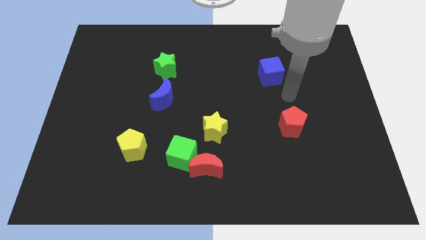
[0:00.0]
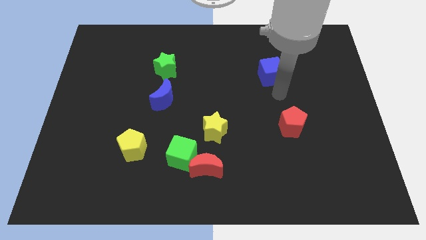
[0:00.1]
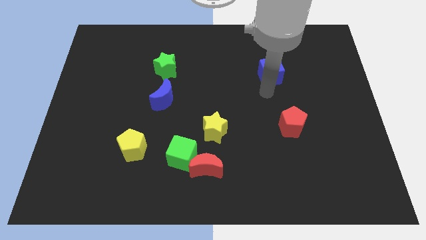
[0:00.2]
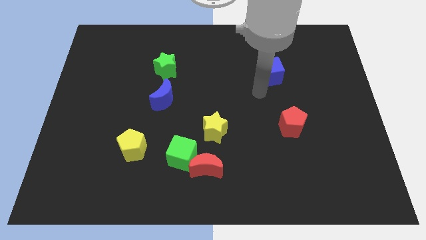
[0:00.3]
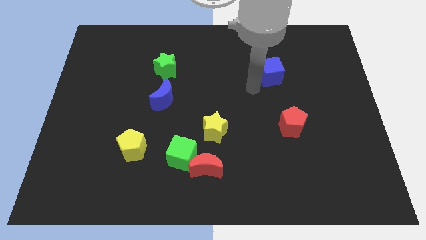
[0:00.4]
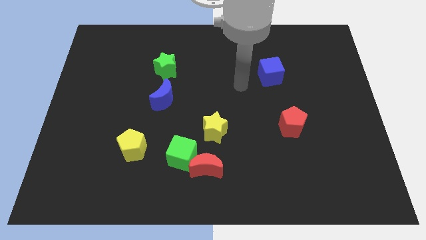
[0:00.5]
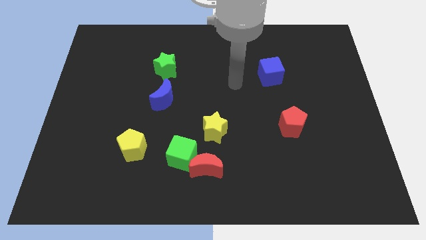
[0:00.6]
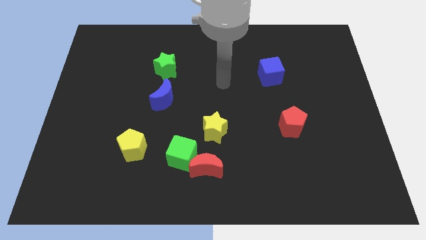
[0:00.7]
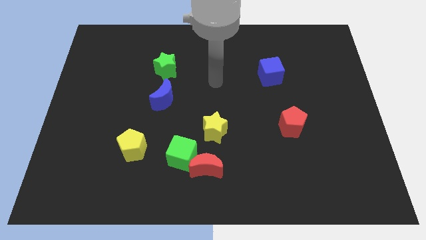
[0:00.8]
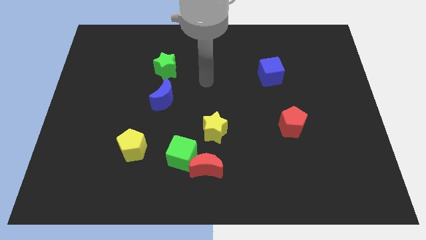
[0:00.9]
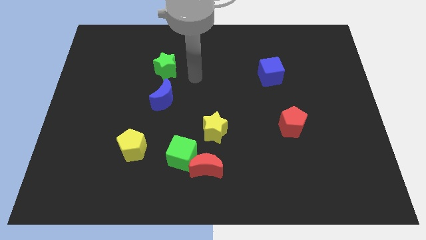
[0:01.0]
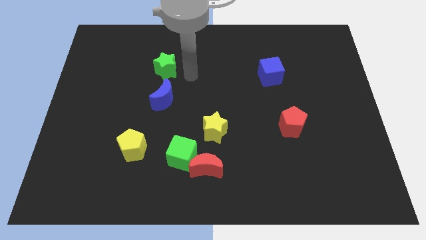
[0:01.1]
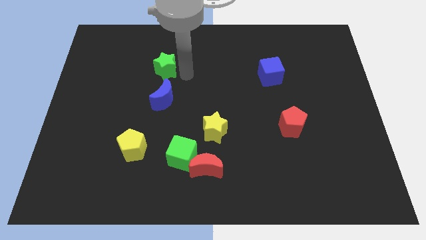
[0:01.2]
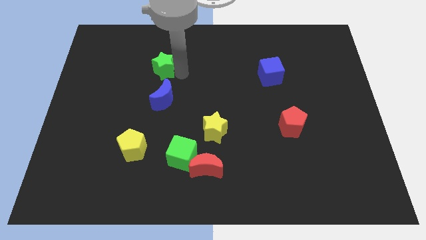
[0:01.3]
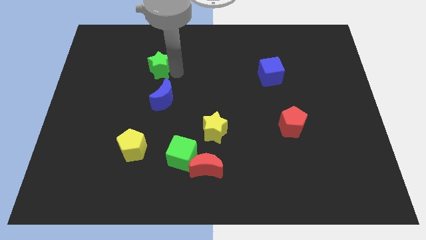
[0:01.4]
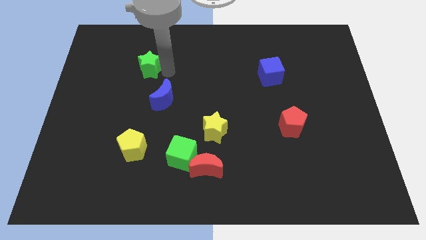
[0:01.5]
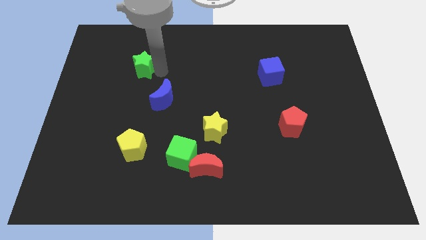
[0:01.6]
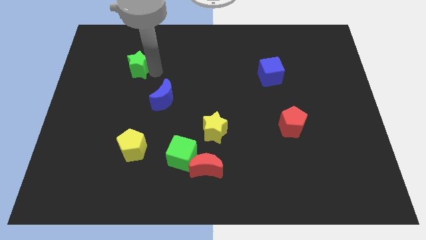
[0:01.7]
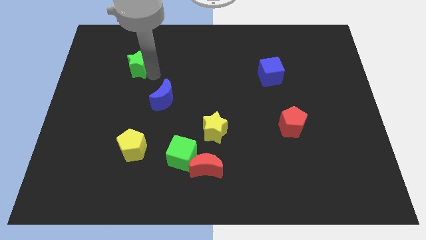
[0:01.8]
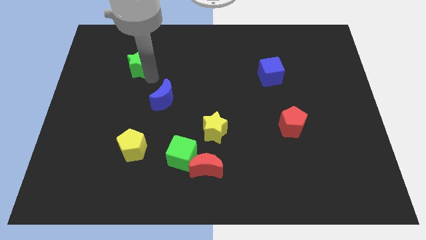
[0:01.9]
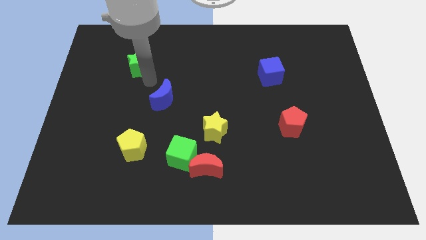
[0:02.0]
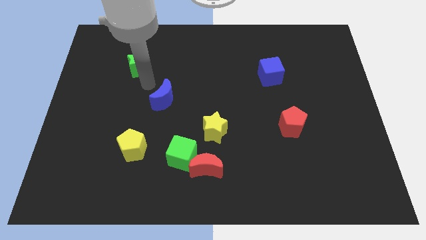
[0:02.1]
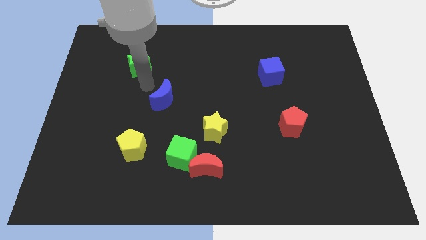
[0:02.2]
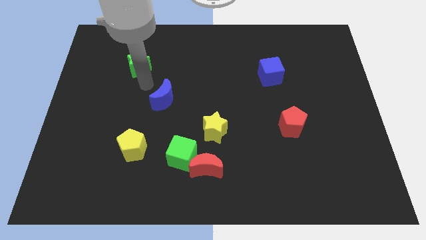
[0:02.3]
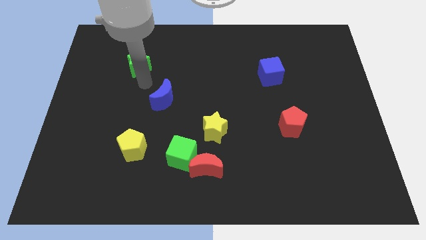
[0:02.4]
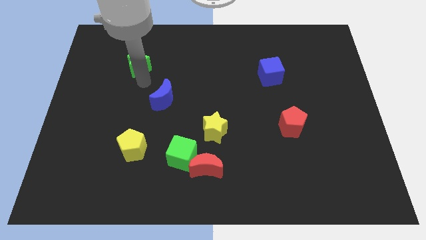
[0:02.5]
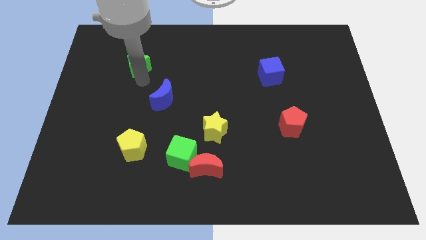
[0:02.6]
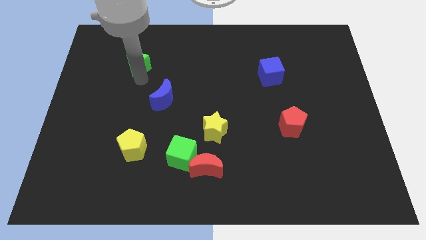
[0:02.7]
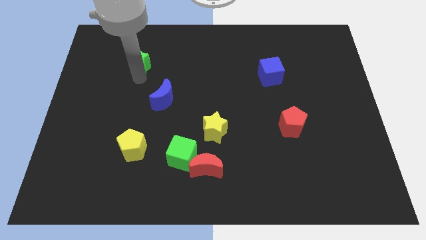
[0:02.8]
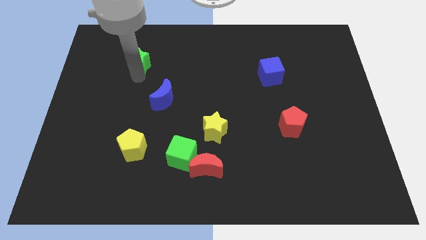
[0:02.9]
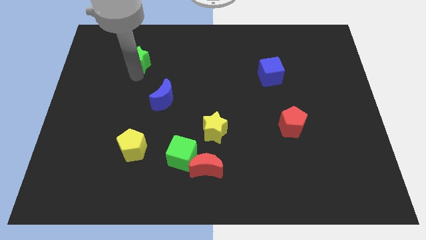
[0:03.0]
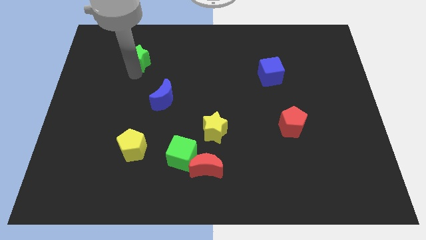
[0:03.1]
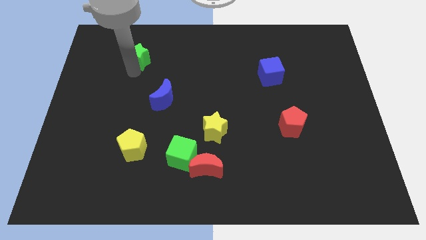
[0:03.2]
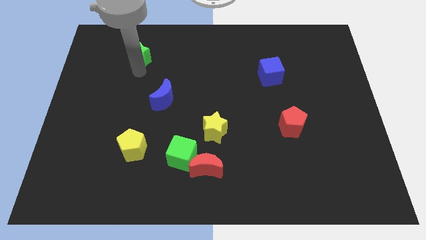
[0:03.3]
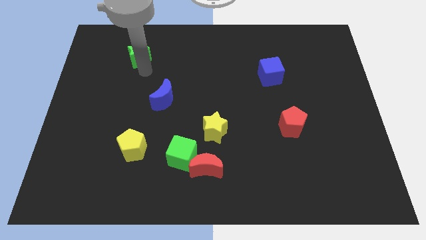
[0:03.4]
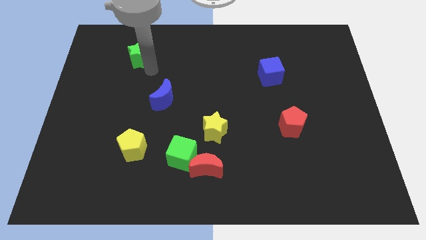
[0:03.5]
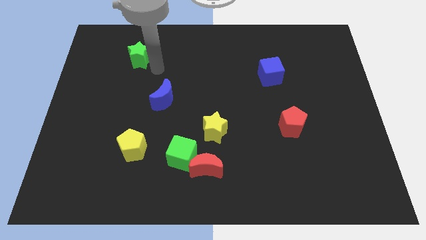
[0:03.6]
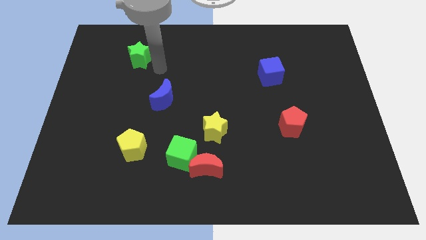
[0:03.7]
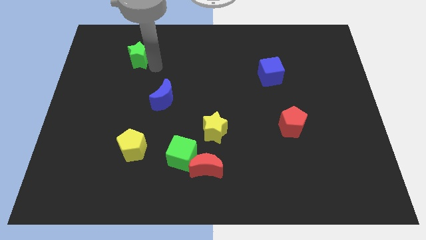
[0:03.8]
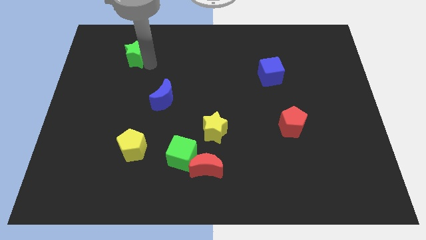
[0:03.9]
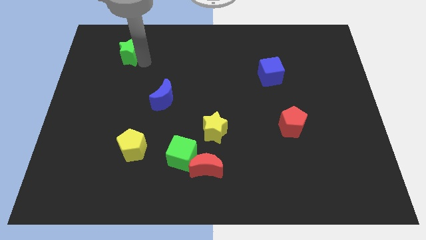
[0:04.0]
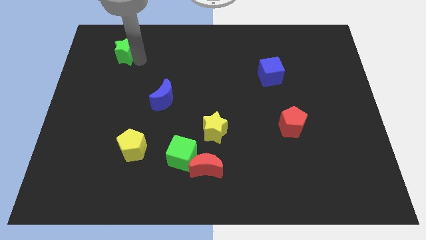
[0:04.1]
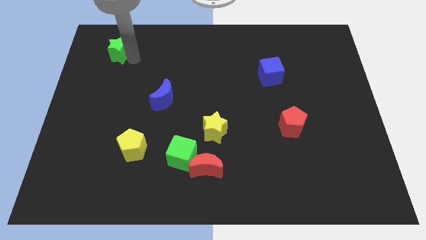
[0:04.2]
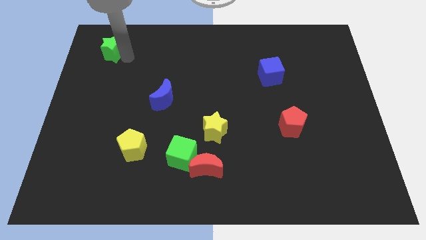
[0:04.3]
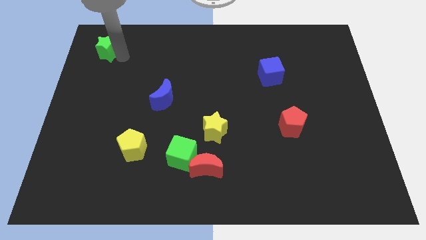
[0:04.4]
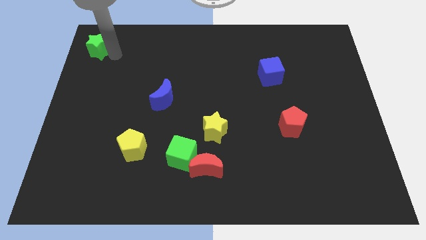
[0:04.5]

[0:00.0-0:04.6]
put the green star to the upper left corner

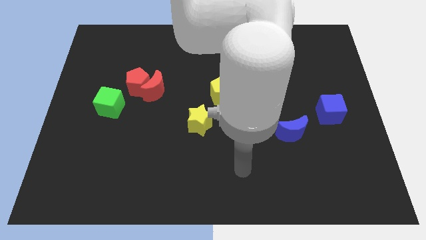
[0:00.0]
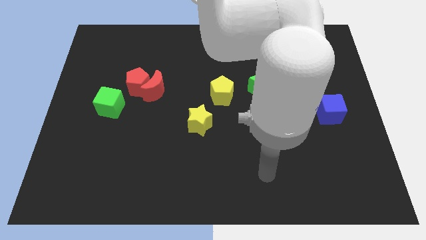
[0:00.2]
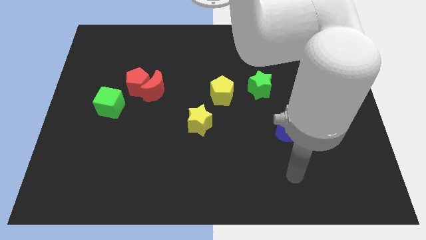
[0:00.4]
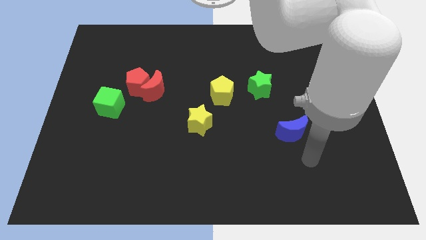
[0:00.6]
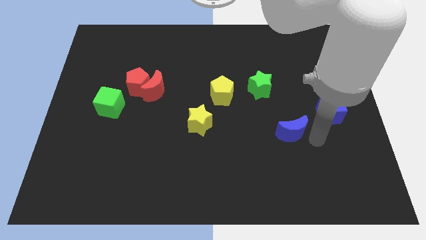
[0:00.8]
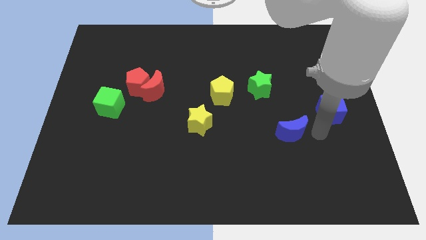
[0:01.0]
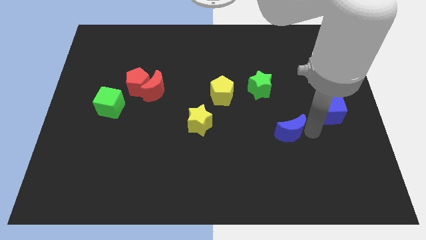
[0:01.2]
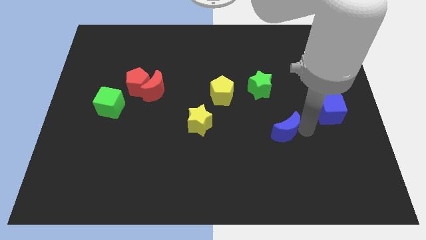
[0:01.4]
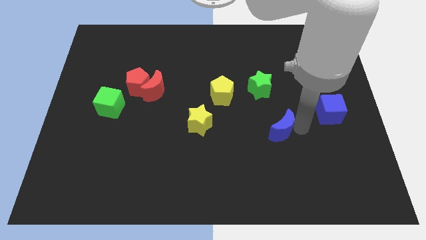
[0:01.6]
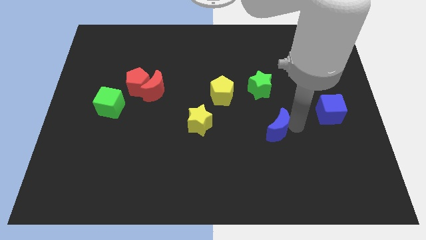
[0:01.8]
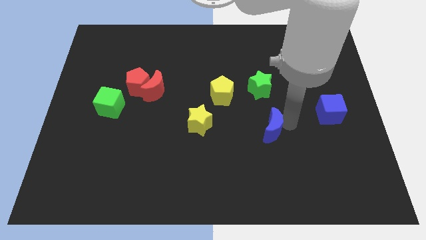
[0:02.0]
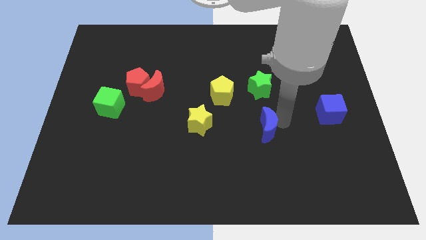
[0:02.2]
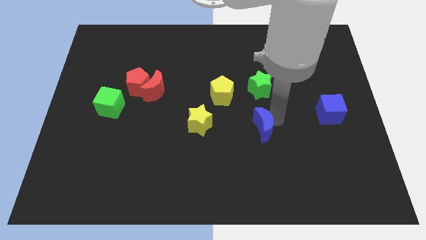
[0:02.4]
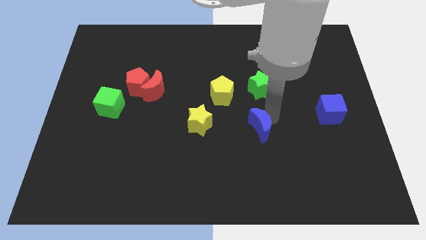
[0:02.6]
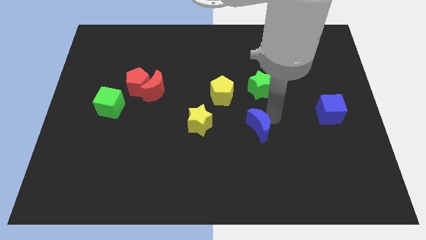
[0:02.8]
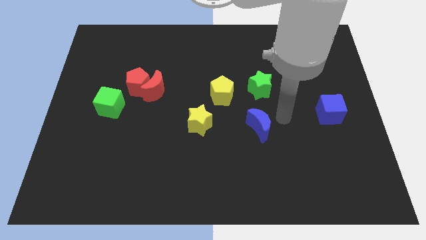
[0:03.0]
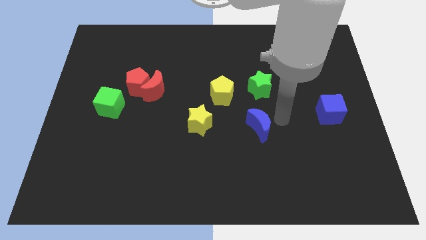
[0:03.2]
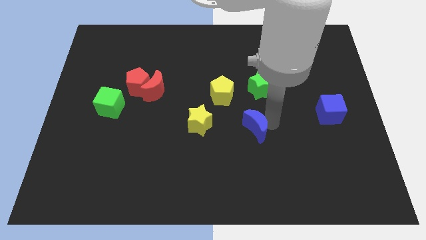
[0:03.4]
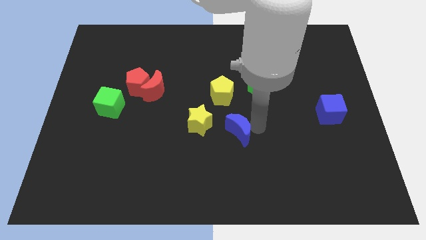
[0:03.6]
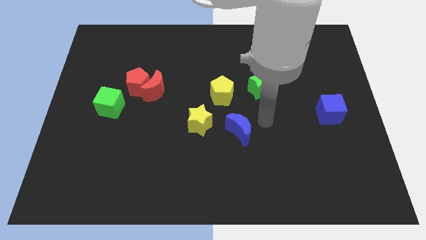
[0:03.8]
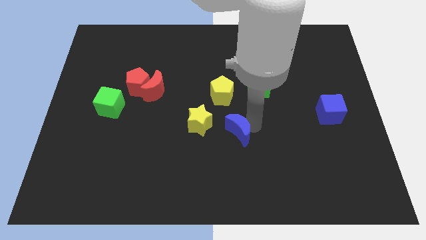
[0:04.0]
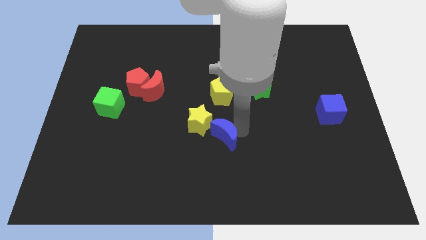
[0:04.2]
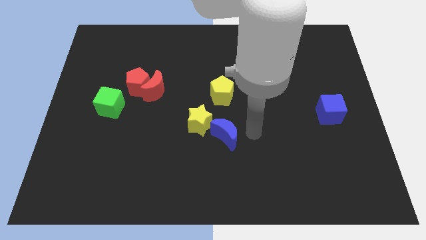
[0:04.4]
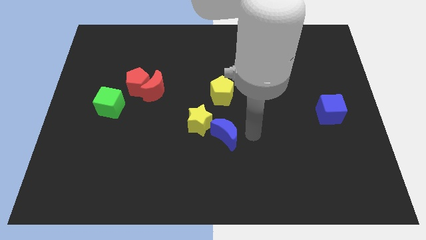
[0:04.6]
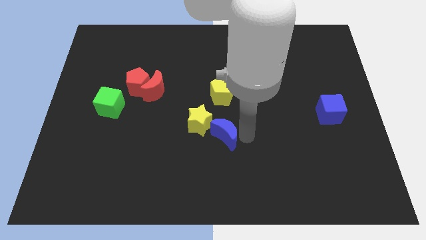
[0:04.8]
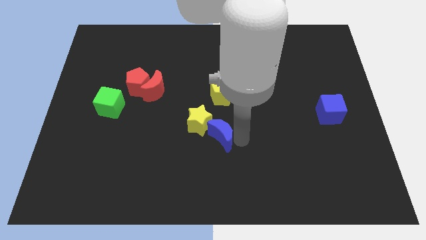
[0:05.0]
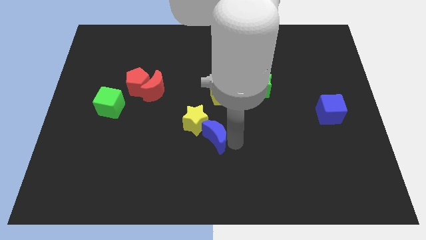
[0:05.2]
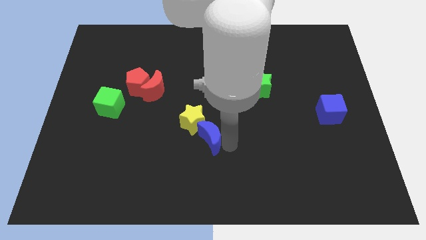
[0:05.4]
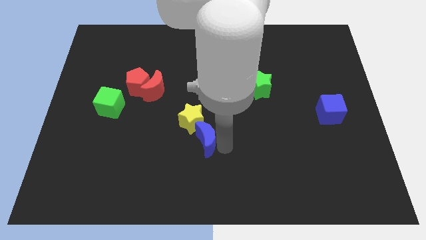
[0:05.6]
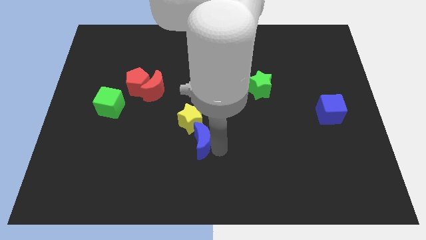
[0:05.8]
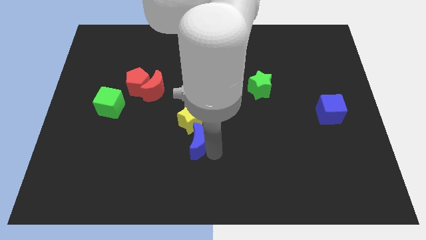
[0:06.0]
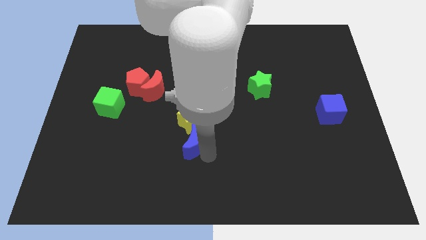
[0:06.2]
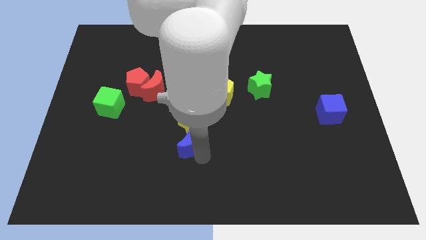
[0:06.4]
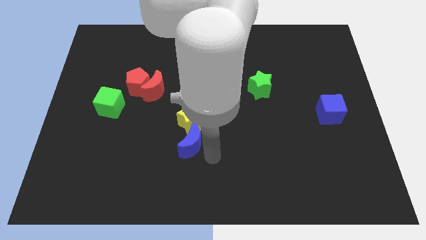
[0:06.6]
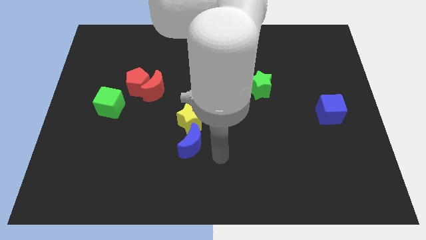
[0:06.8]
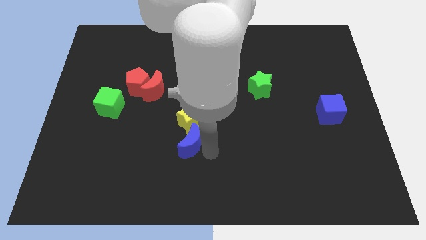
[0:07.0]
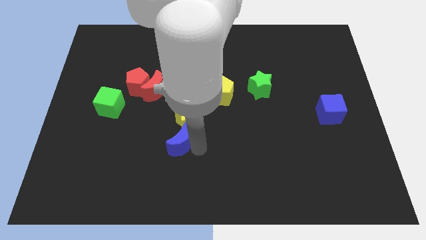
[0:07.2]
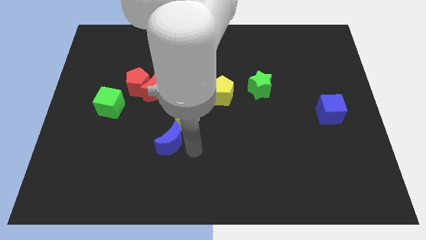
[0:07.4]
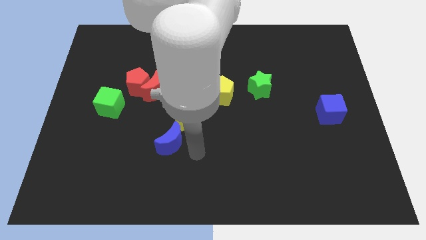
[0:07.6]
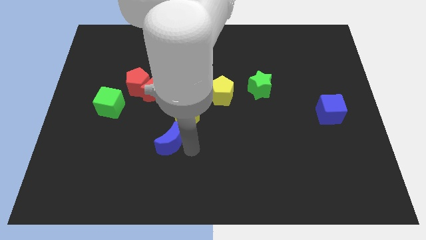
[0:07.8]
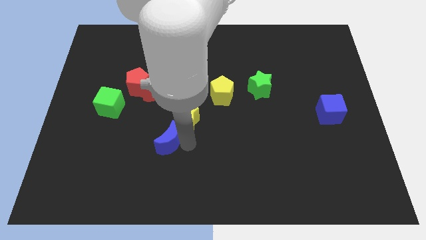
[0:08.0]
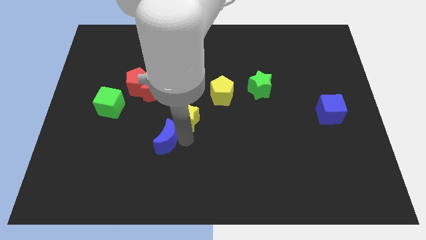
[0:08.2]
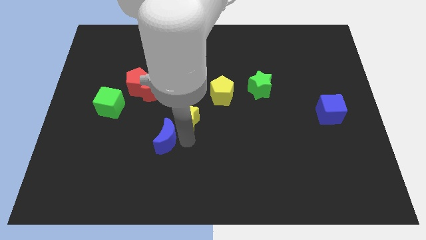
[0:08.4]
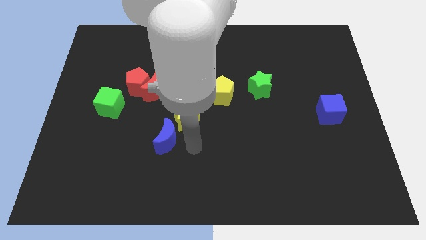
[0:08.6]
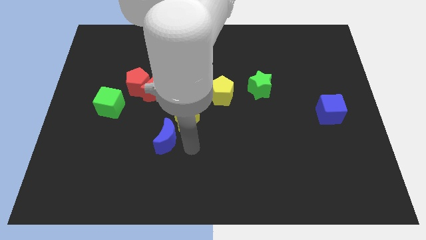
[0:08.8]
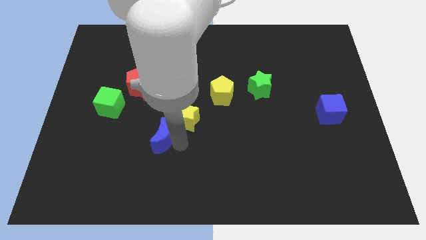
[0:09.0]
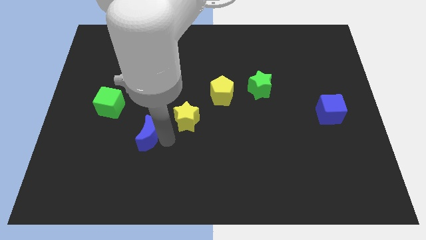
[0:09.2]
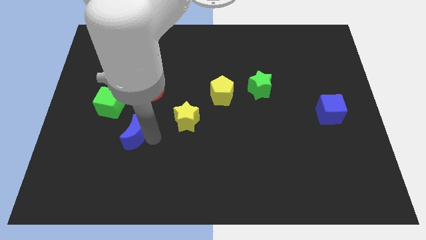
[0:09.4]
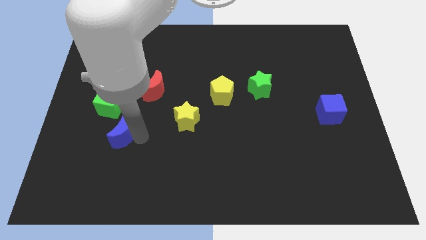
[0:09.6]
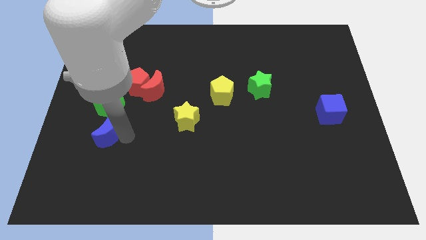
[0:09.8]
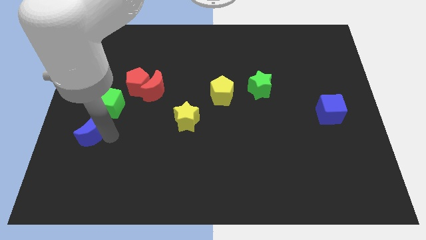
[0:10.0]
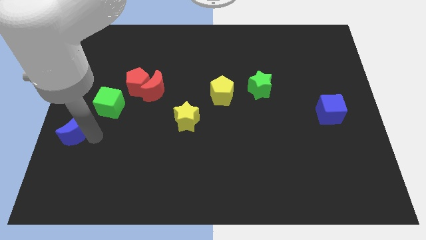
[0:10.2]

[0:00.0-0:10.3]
move the blue moon to the left side
